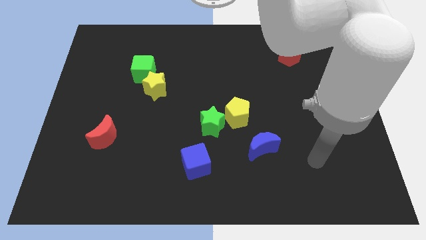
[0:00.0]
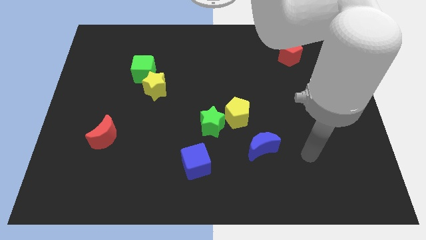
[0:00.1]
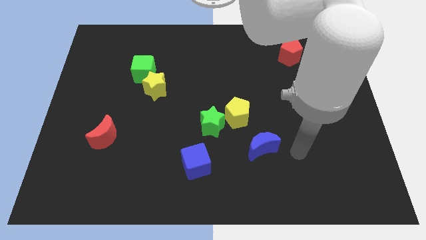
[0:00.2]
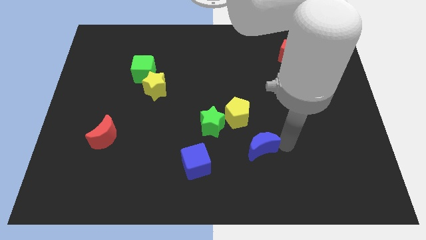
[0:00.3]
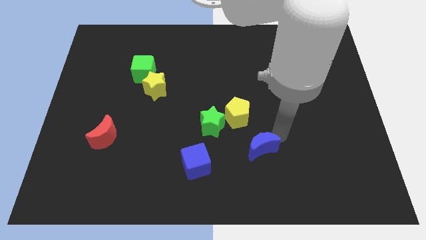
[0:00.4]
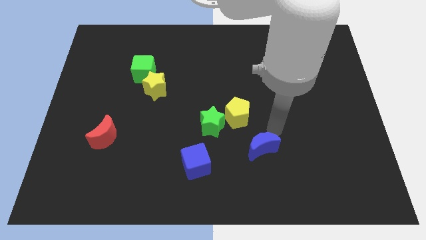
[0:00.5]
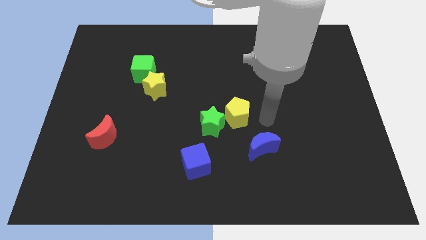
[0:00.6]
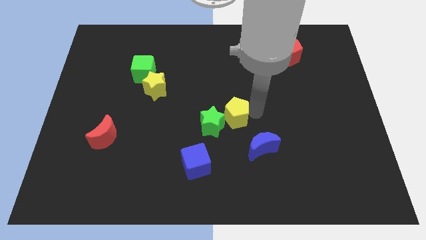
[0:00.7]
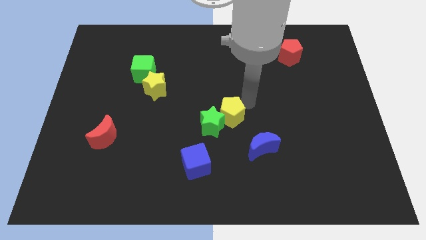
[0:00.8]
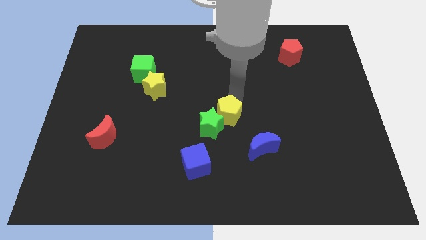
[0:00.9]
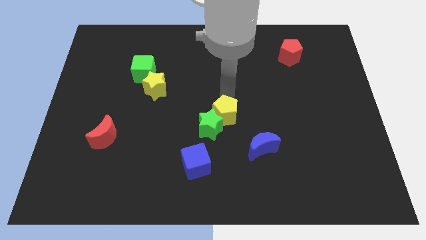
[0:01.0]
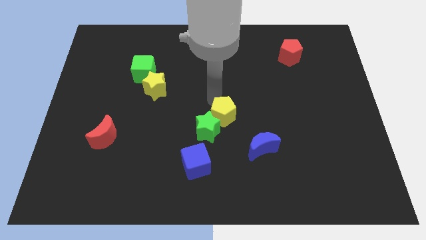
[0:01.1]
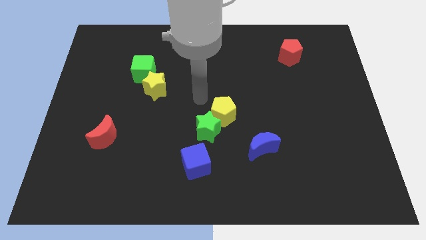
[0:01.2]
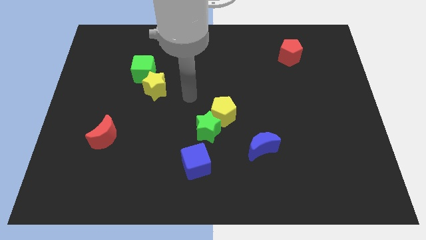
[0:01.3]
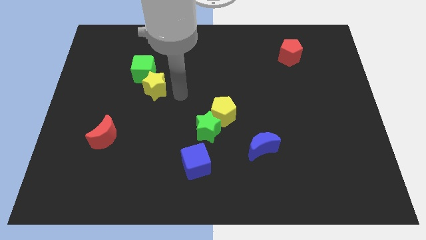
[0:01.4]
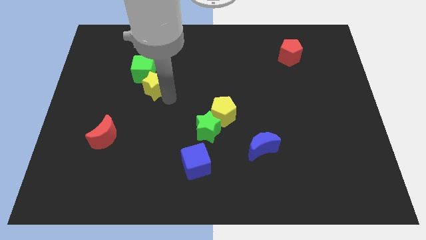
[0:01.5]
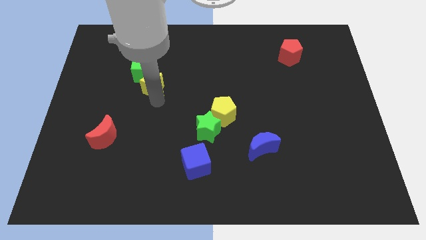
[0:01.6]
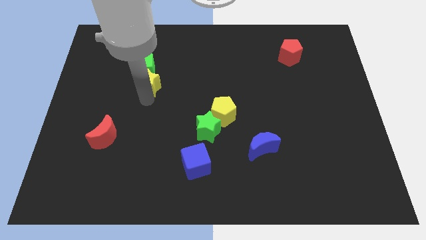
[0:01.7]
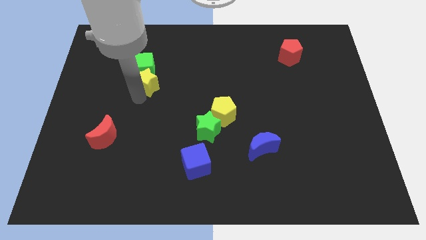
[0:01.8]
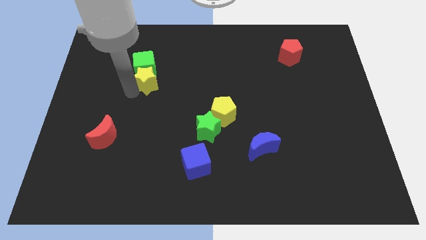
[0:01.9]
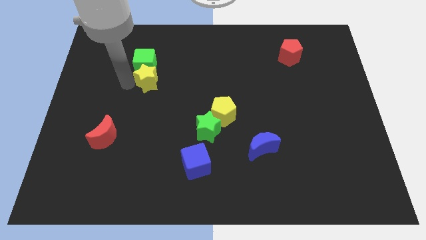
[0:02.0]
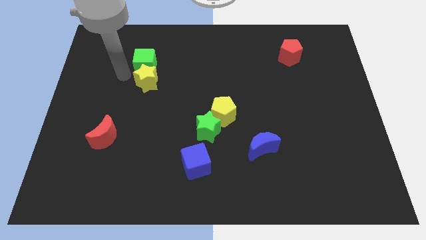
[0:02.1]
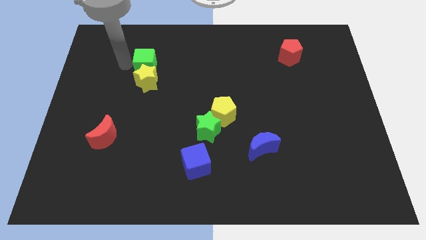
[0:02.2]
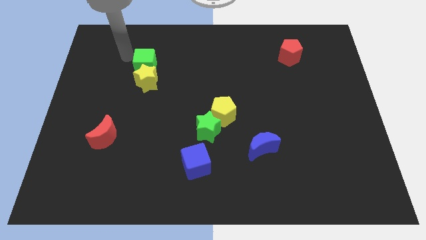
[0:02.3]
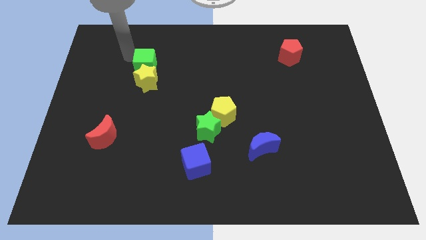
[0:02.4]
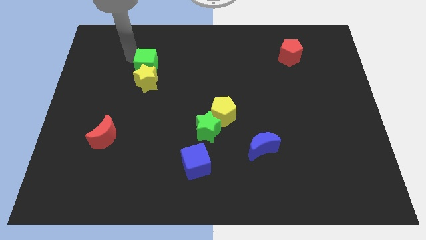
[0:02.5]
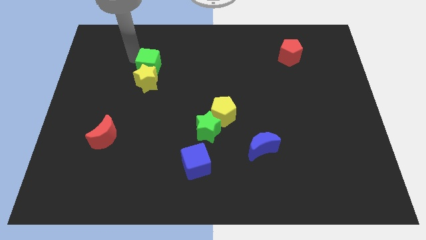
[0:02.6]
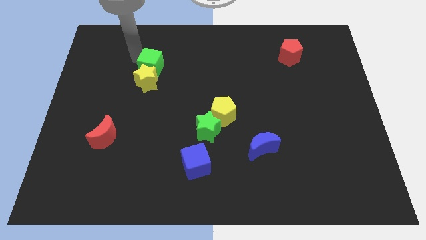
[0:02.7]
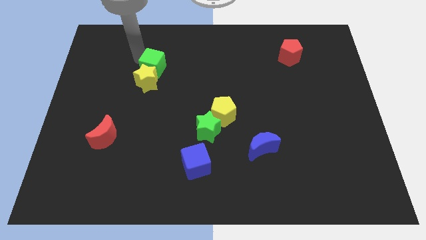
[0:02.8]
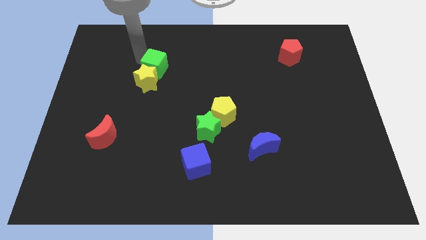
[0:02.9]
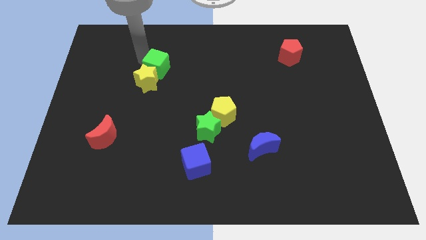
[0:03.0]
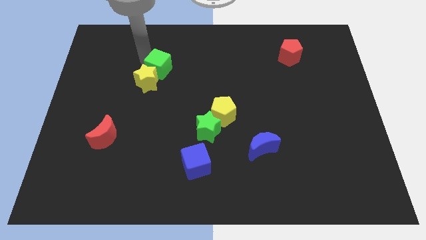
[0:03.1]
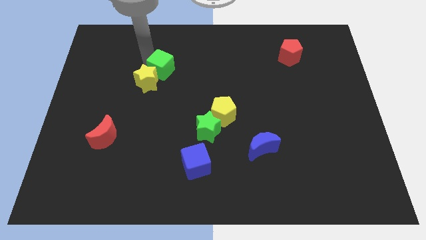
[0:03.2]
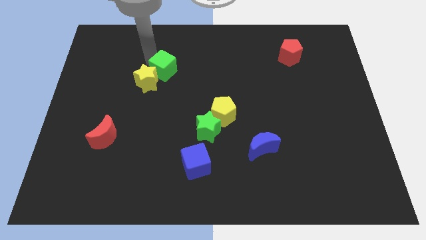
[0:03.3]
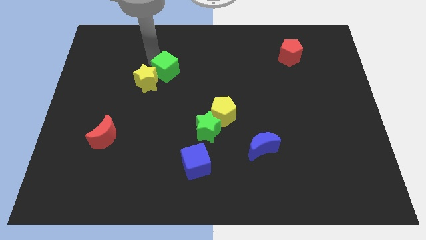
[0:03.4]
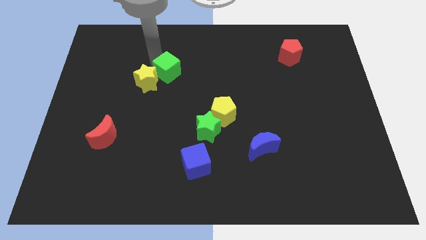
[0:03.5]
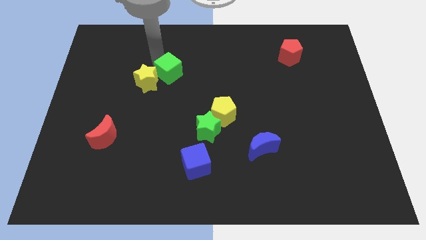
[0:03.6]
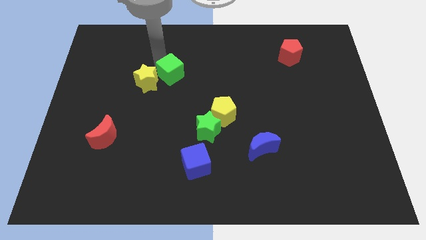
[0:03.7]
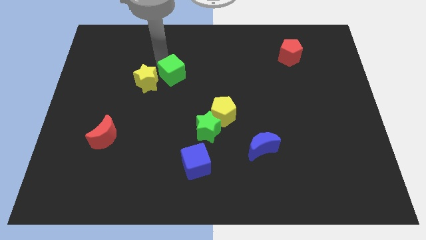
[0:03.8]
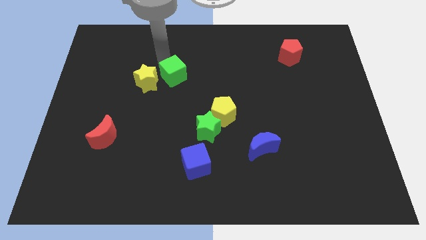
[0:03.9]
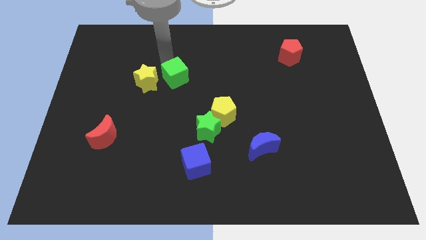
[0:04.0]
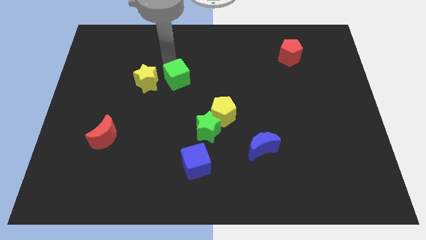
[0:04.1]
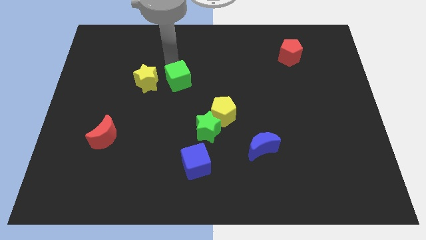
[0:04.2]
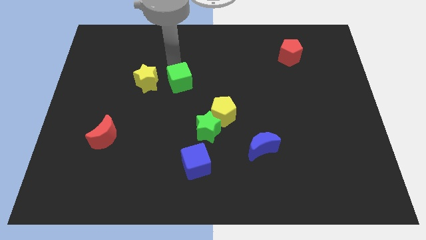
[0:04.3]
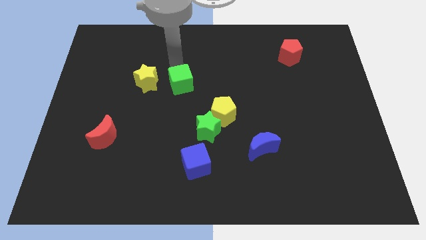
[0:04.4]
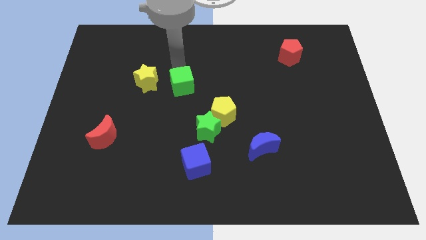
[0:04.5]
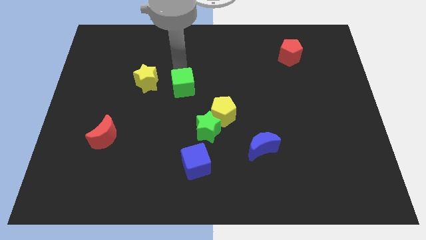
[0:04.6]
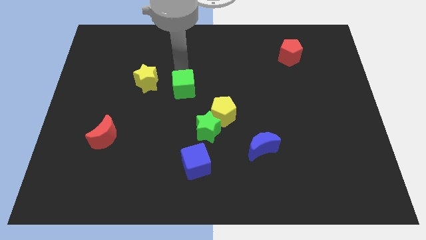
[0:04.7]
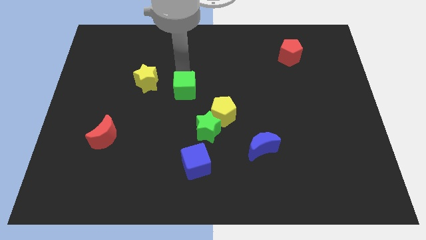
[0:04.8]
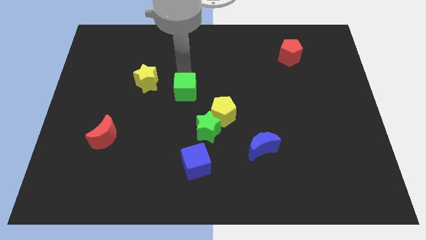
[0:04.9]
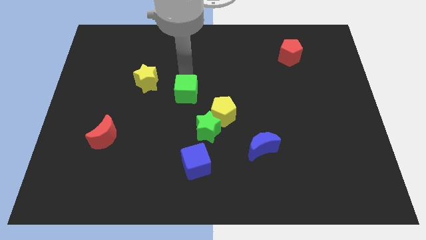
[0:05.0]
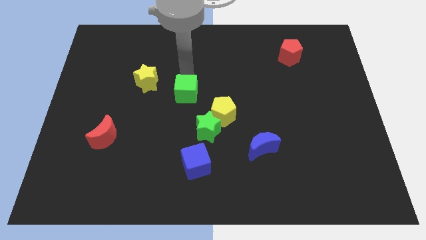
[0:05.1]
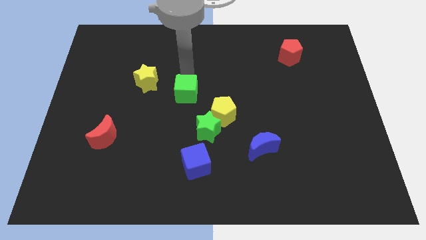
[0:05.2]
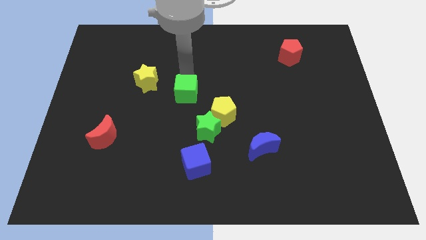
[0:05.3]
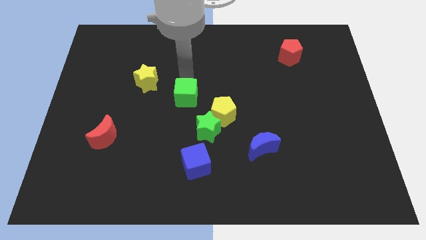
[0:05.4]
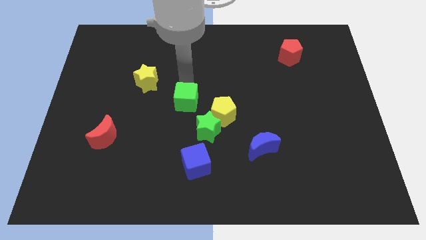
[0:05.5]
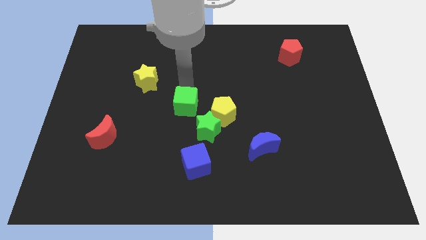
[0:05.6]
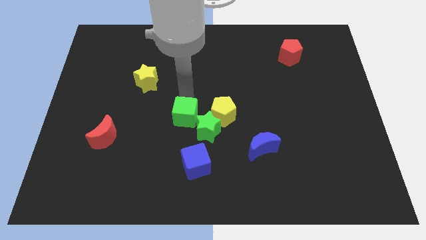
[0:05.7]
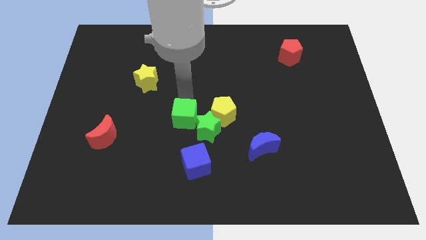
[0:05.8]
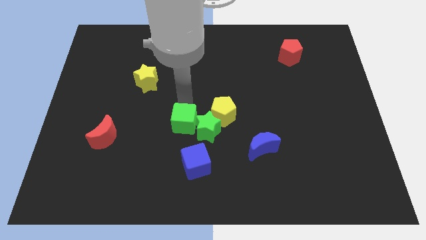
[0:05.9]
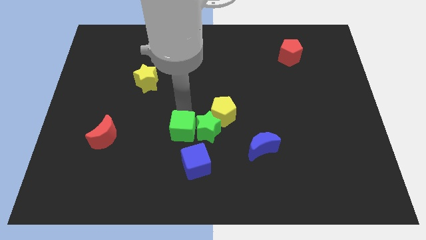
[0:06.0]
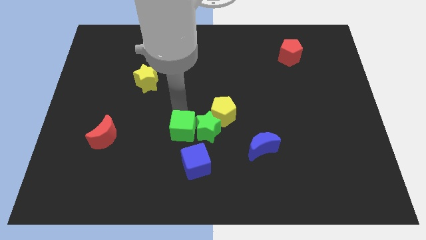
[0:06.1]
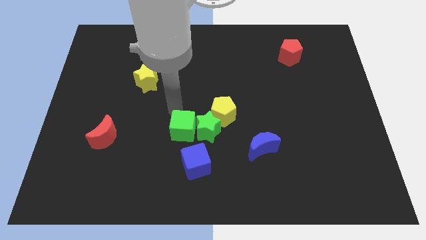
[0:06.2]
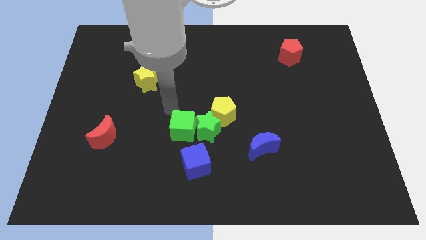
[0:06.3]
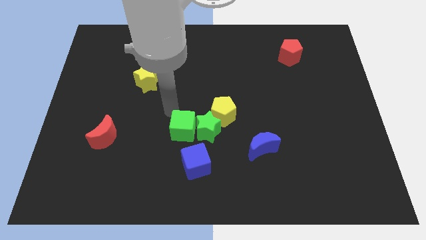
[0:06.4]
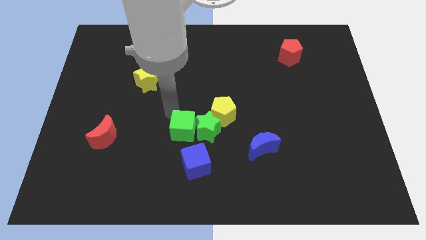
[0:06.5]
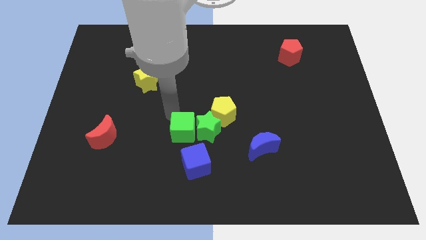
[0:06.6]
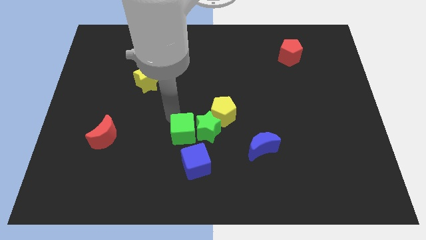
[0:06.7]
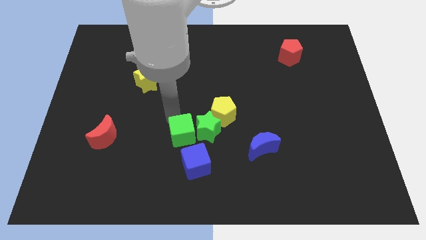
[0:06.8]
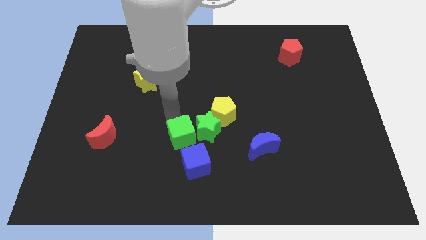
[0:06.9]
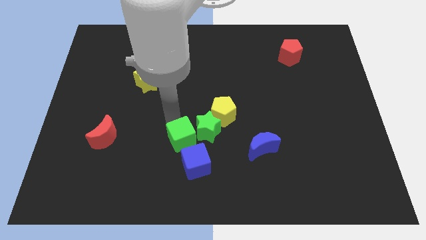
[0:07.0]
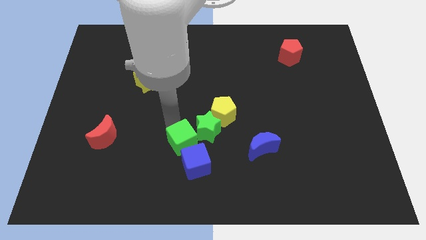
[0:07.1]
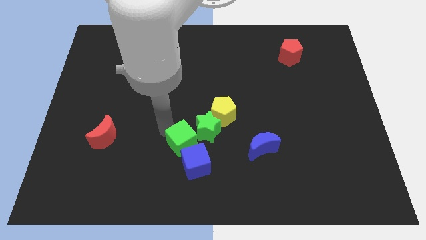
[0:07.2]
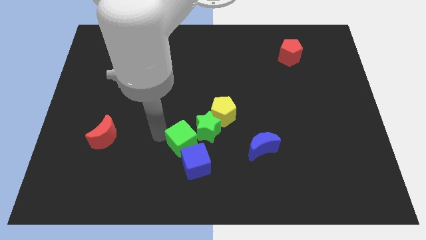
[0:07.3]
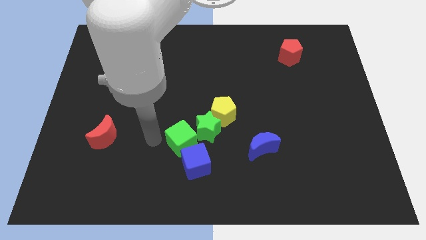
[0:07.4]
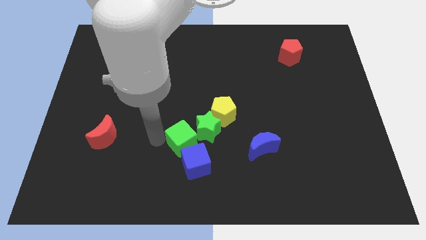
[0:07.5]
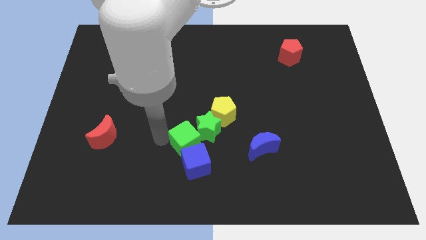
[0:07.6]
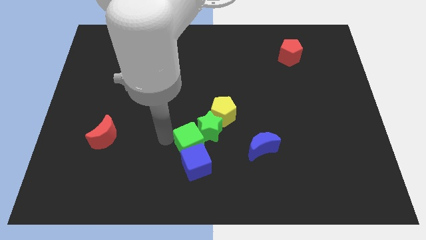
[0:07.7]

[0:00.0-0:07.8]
move the green cube diagonally up and to the right of the blue cube
